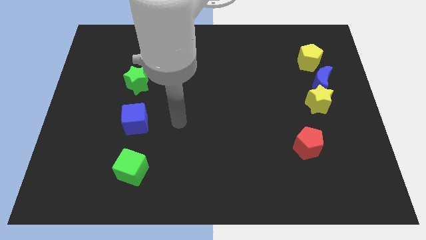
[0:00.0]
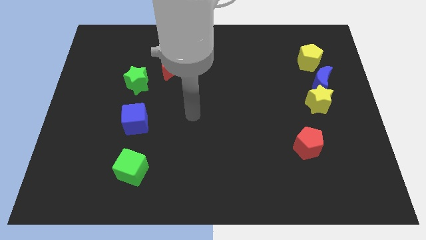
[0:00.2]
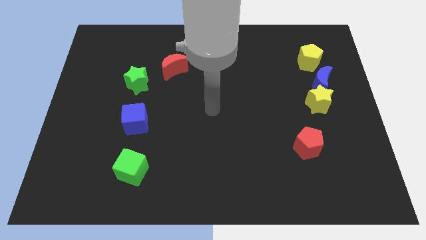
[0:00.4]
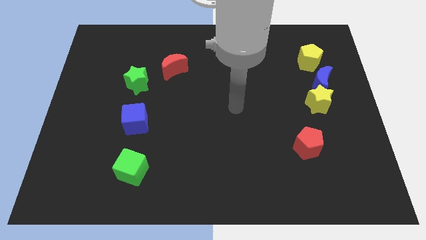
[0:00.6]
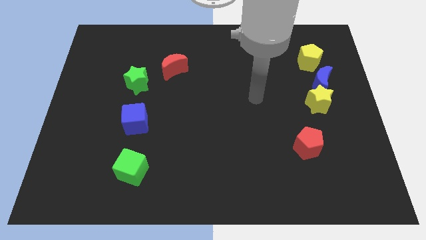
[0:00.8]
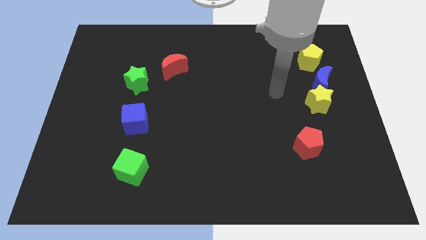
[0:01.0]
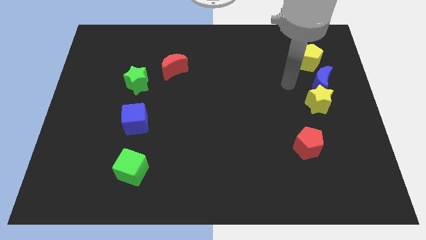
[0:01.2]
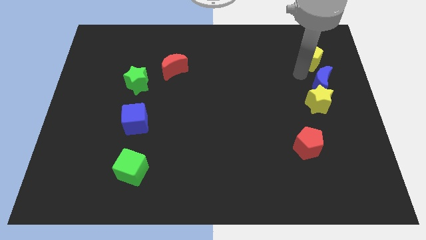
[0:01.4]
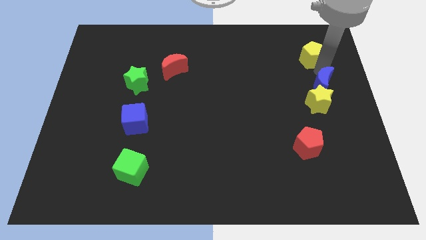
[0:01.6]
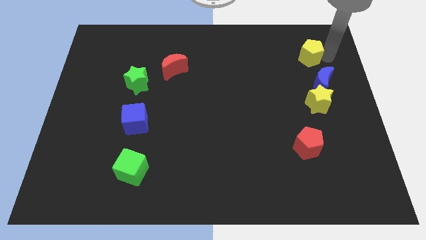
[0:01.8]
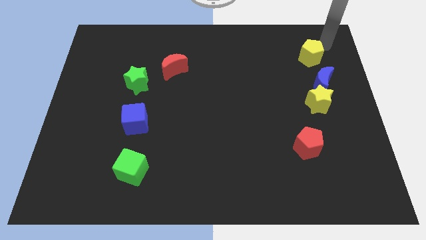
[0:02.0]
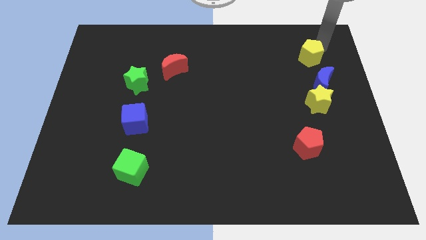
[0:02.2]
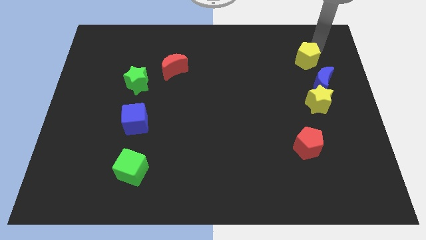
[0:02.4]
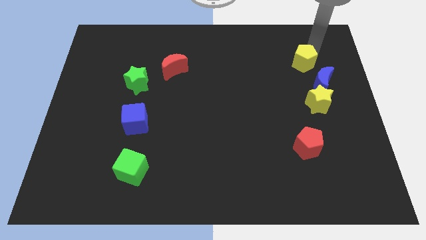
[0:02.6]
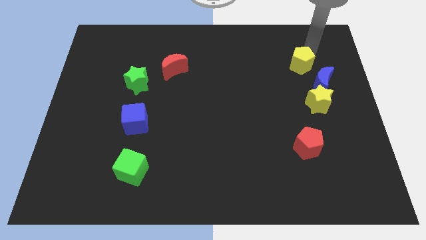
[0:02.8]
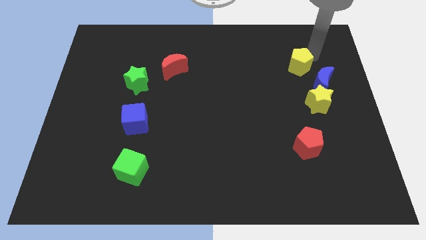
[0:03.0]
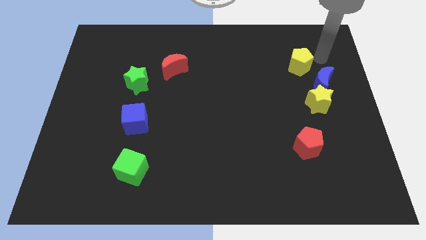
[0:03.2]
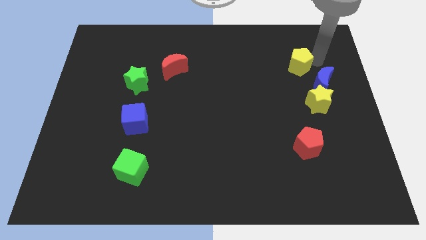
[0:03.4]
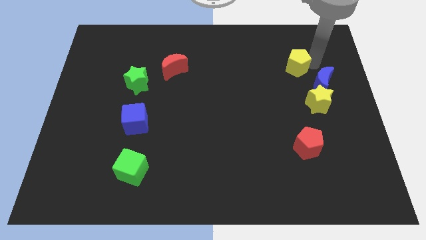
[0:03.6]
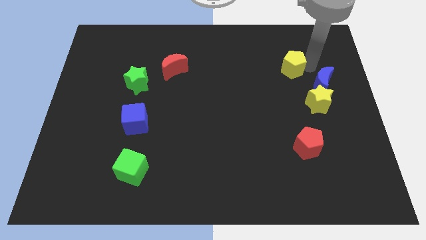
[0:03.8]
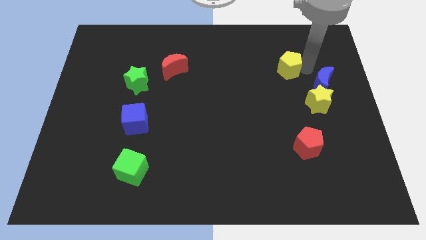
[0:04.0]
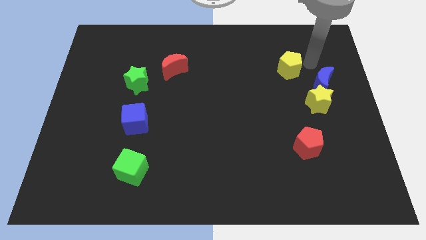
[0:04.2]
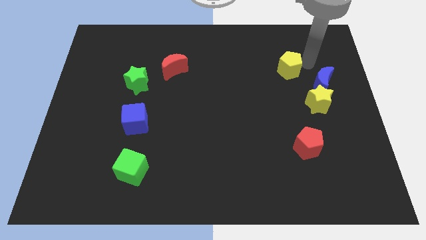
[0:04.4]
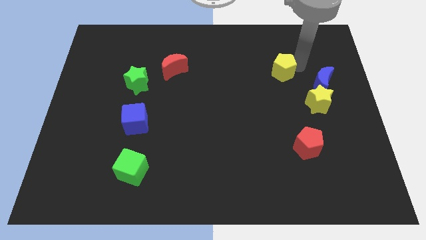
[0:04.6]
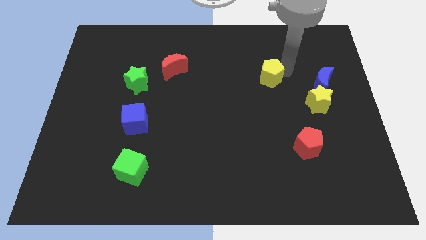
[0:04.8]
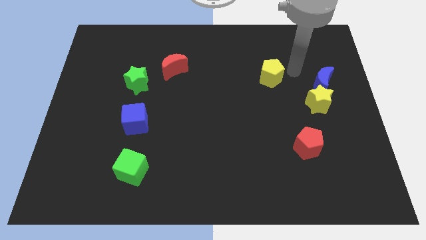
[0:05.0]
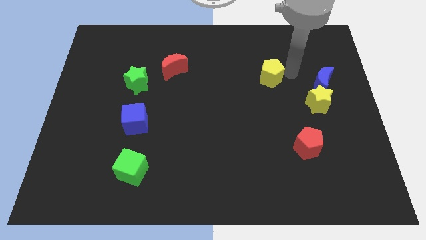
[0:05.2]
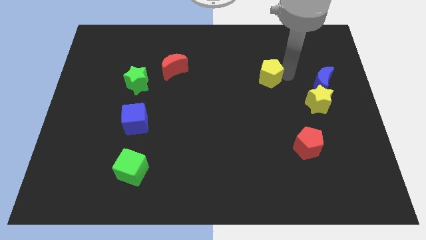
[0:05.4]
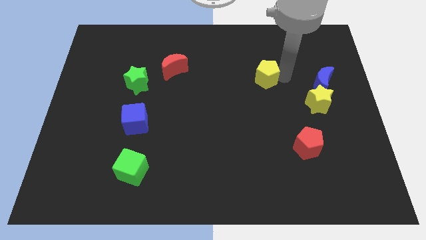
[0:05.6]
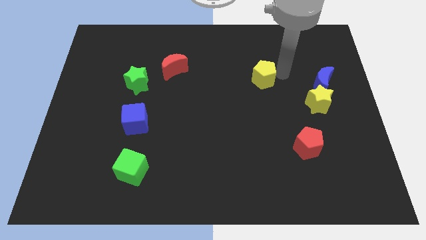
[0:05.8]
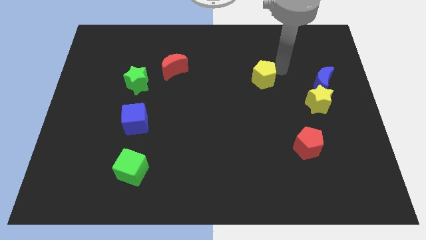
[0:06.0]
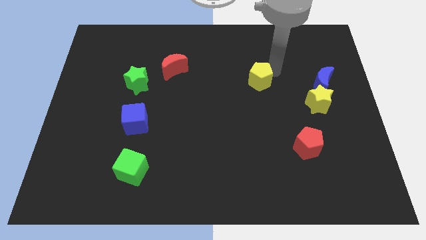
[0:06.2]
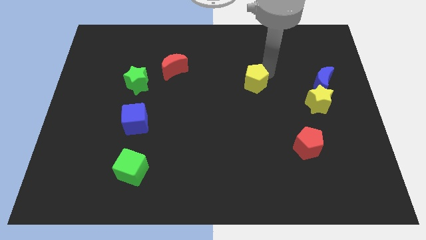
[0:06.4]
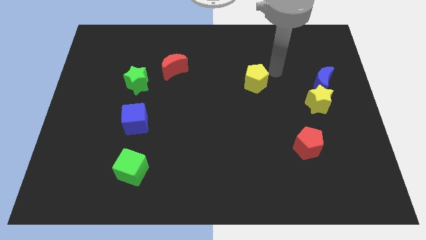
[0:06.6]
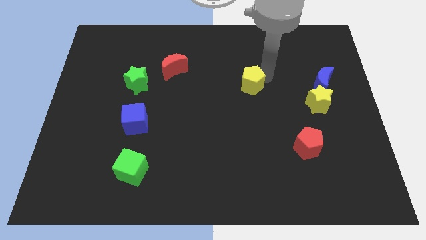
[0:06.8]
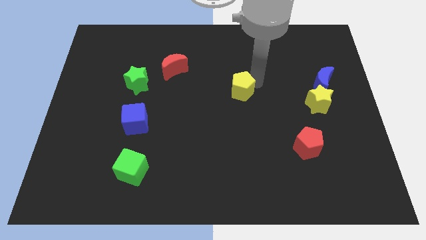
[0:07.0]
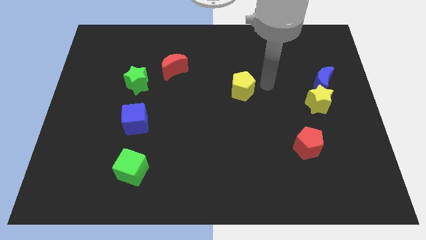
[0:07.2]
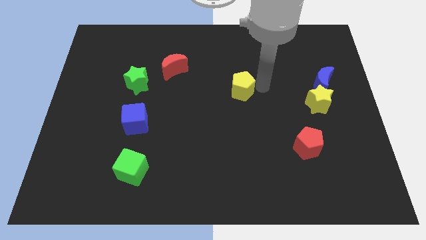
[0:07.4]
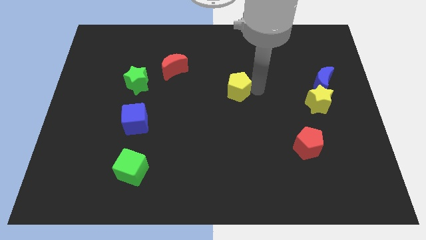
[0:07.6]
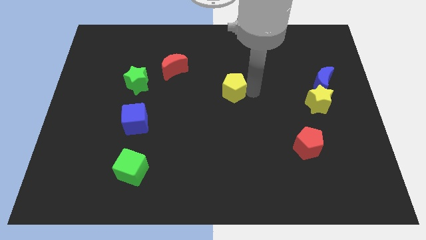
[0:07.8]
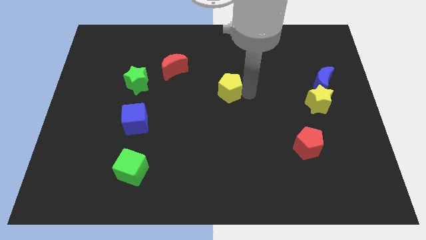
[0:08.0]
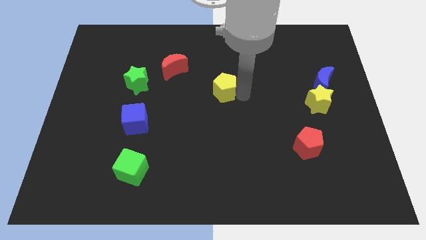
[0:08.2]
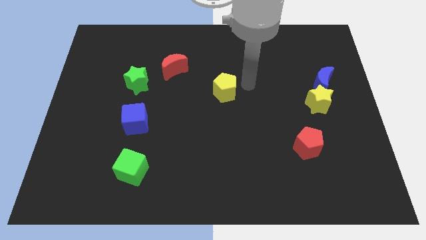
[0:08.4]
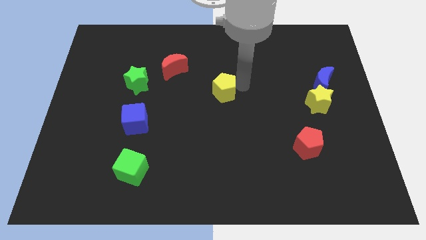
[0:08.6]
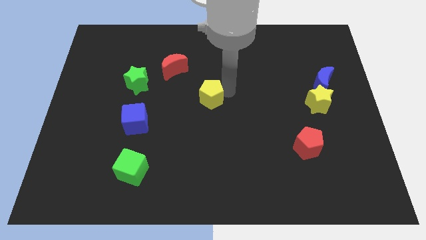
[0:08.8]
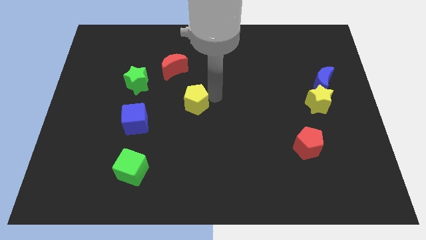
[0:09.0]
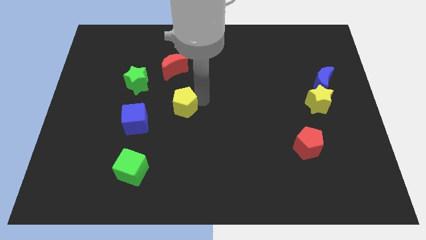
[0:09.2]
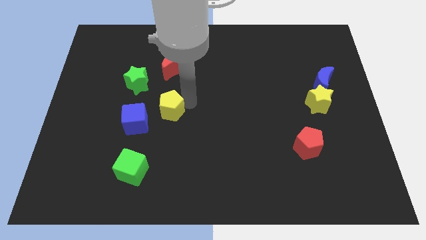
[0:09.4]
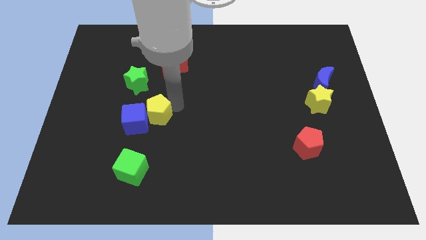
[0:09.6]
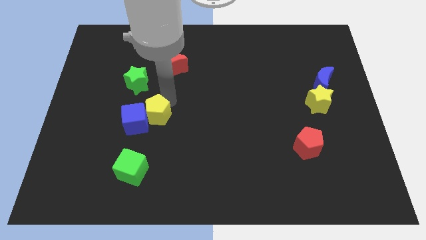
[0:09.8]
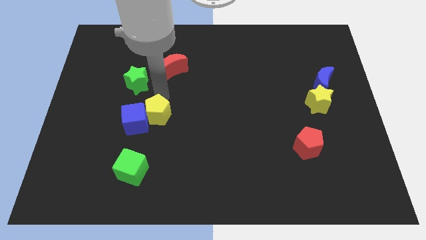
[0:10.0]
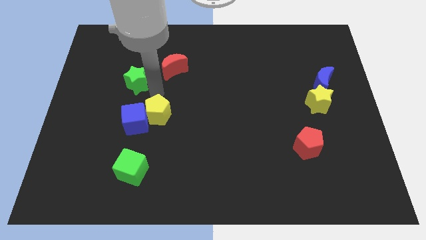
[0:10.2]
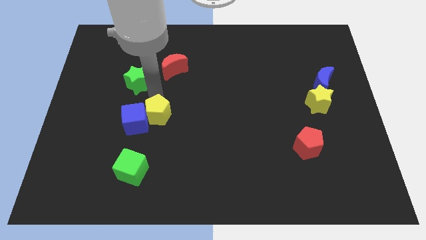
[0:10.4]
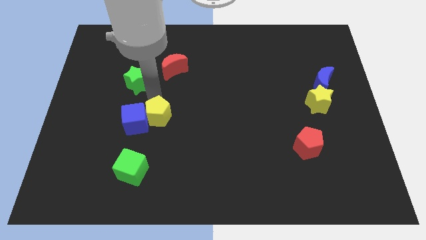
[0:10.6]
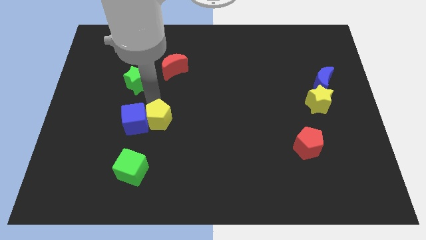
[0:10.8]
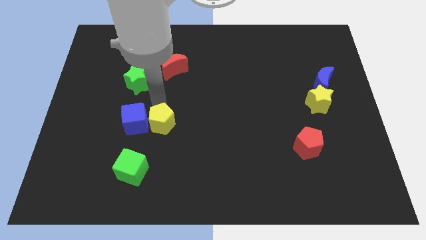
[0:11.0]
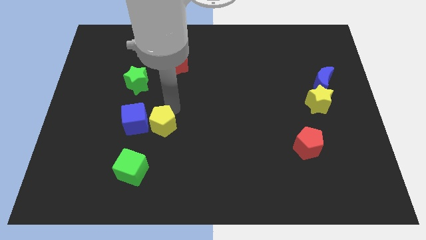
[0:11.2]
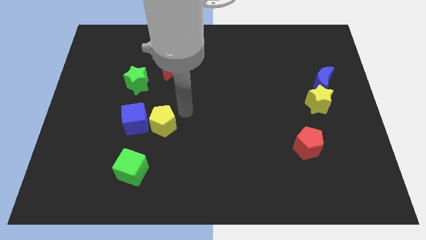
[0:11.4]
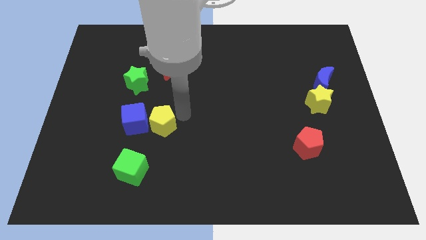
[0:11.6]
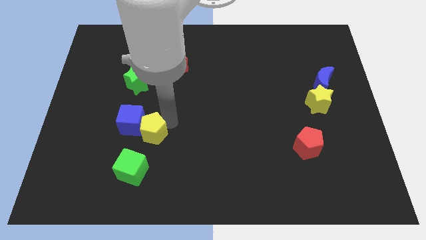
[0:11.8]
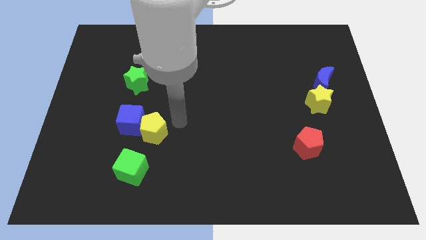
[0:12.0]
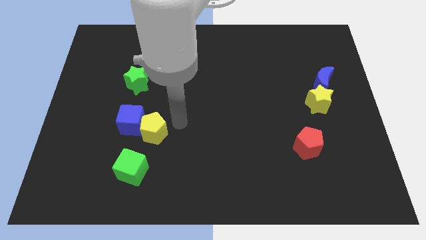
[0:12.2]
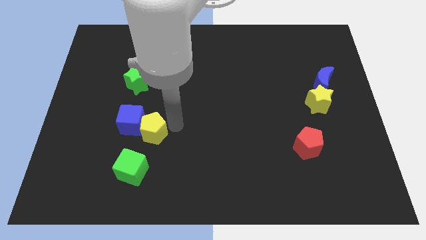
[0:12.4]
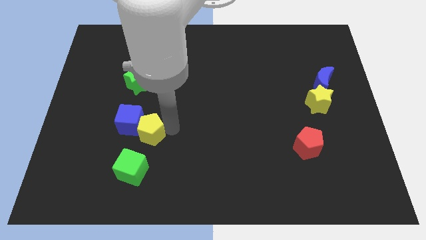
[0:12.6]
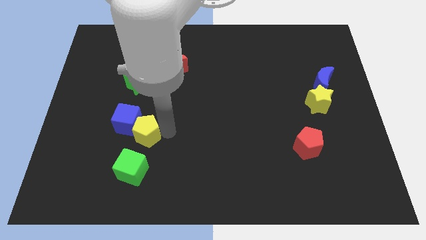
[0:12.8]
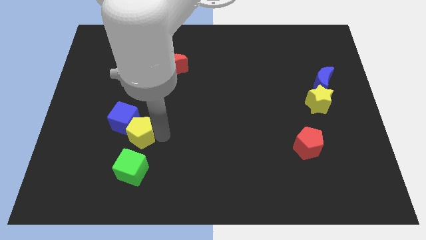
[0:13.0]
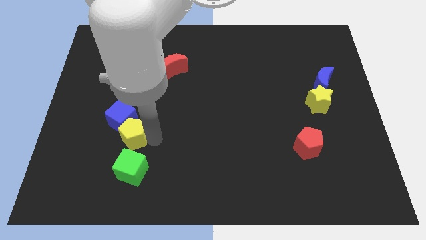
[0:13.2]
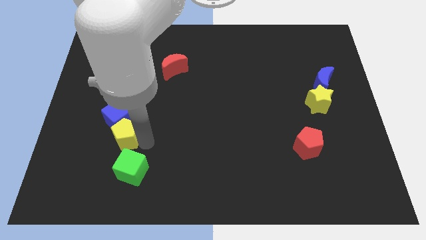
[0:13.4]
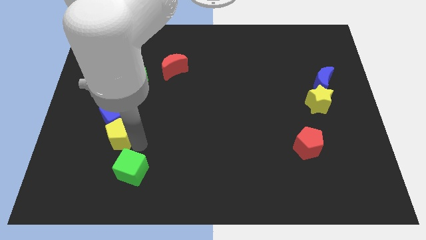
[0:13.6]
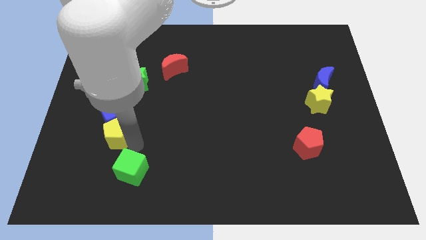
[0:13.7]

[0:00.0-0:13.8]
slide the yellow pentagon diagonally down and to the left of the blue cube

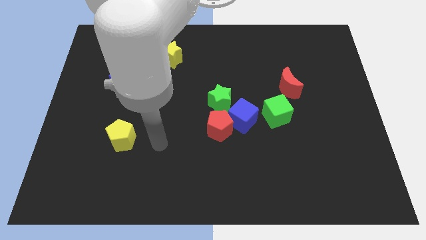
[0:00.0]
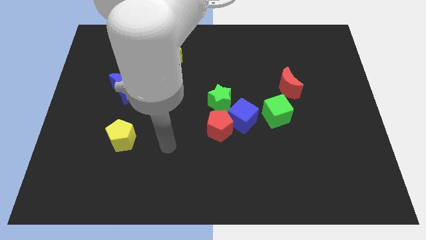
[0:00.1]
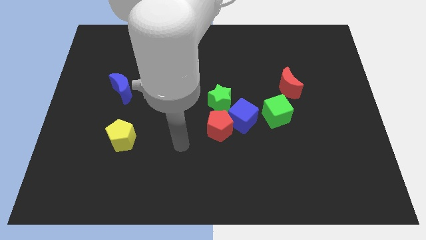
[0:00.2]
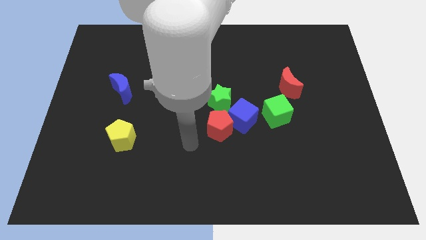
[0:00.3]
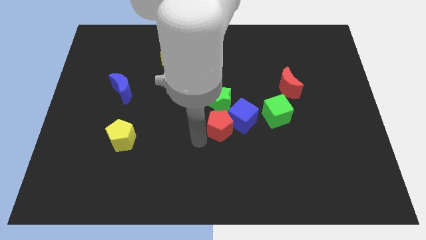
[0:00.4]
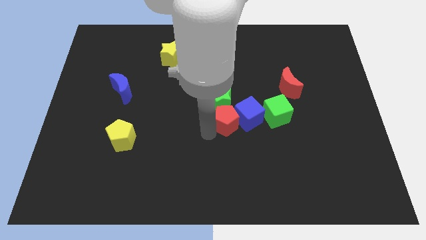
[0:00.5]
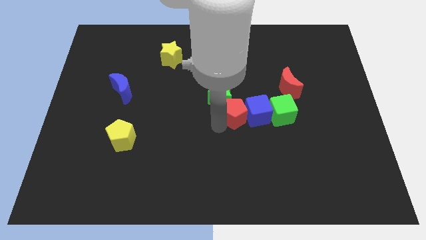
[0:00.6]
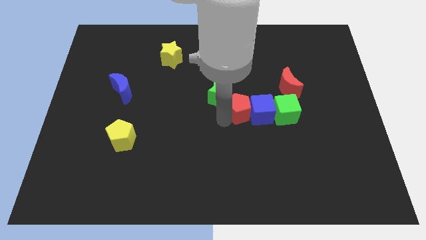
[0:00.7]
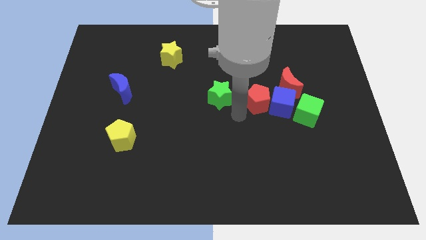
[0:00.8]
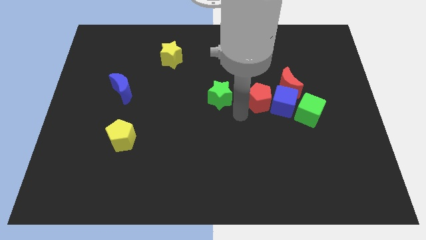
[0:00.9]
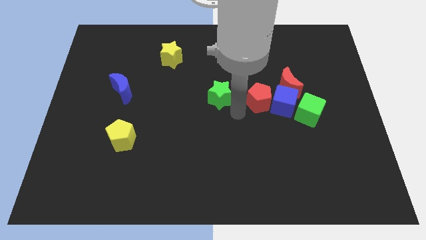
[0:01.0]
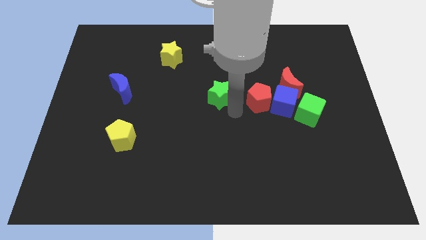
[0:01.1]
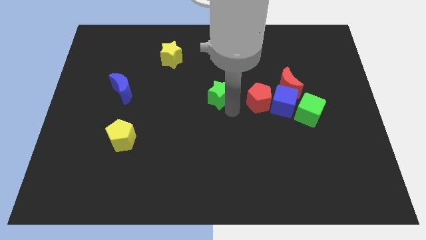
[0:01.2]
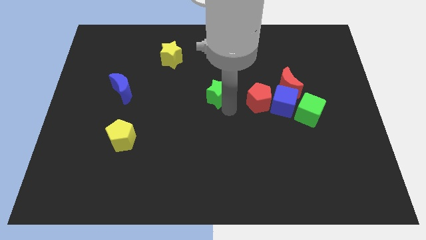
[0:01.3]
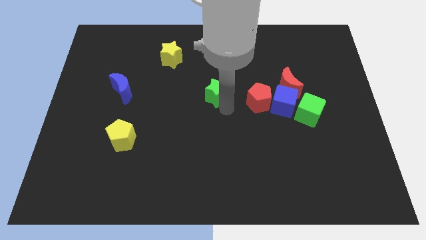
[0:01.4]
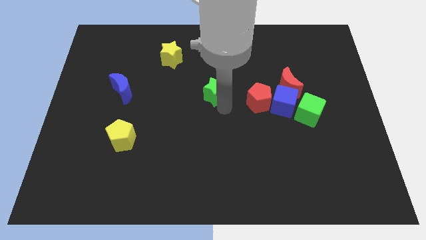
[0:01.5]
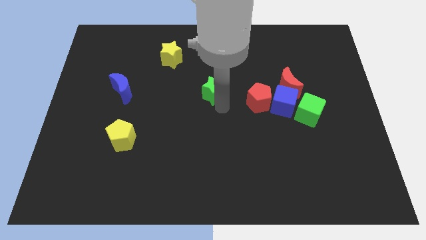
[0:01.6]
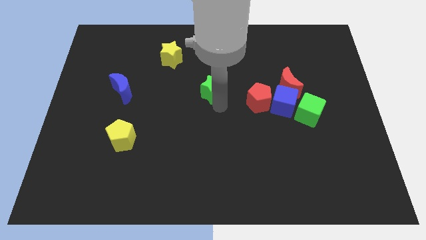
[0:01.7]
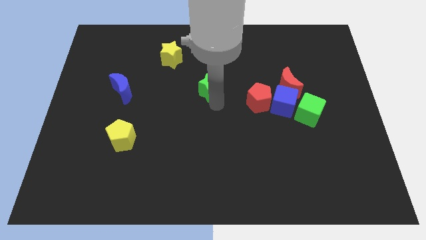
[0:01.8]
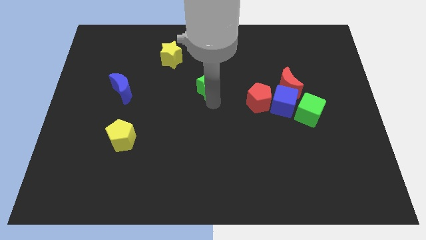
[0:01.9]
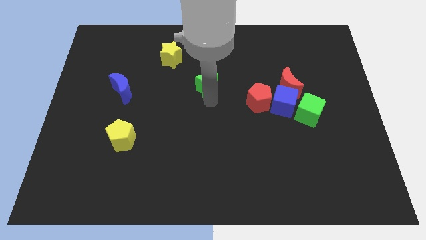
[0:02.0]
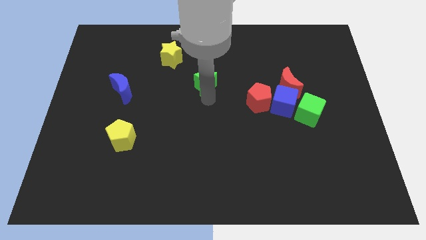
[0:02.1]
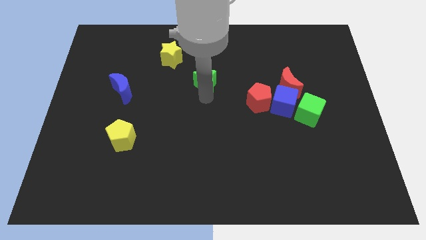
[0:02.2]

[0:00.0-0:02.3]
push the green star to the bottom right side of the yellow star
